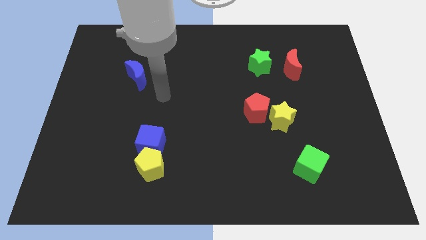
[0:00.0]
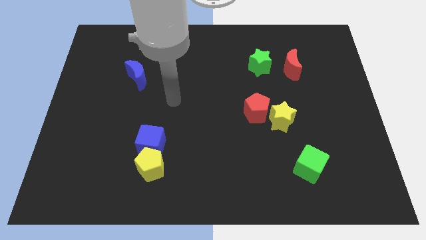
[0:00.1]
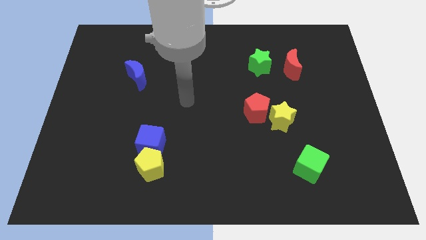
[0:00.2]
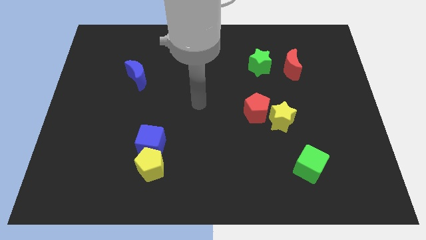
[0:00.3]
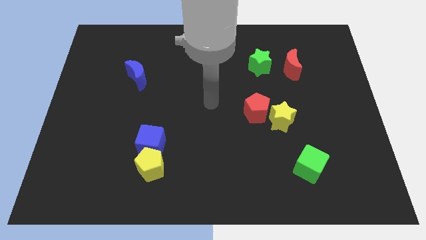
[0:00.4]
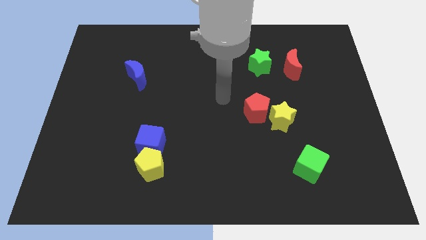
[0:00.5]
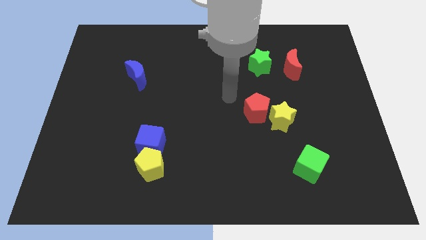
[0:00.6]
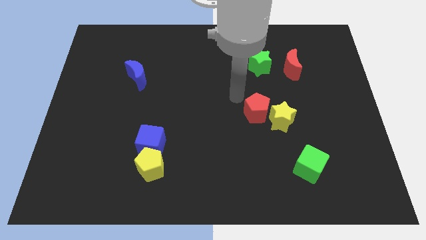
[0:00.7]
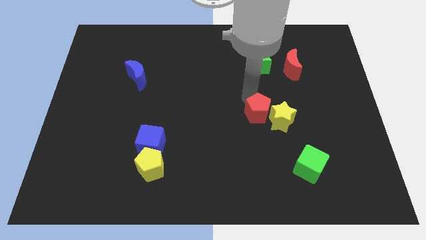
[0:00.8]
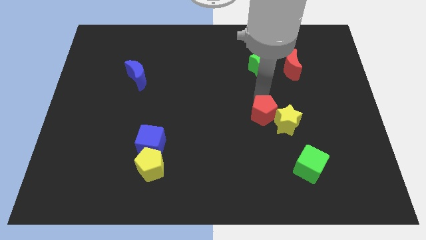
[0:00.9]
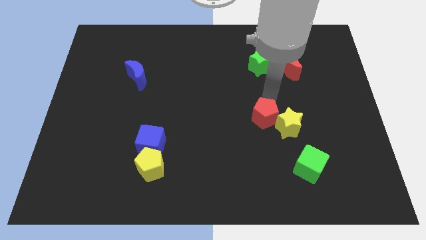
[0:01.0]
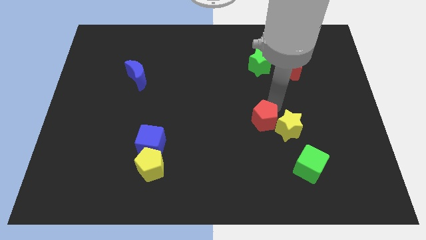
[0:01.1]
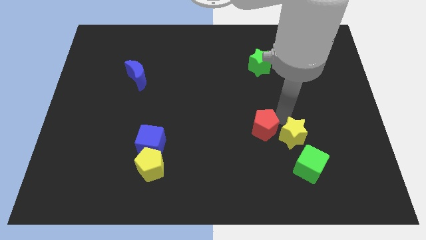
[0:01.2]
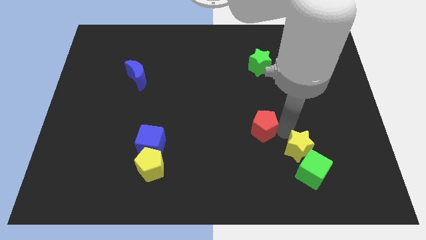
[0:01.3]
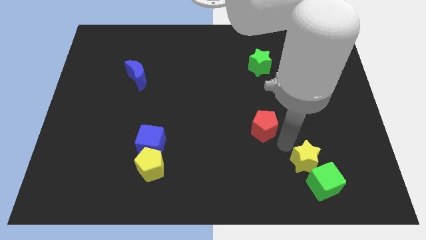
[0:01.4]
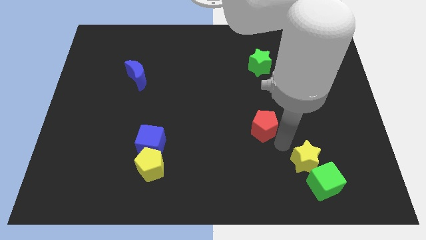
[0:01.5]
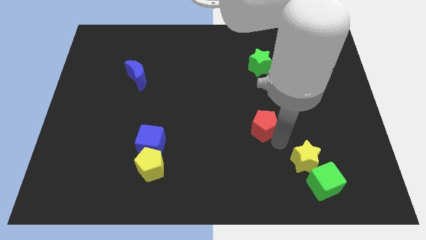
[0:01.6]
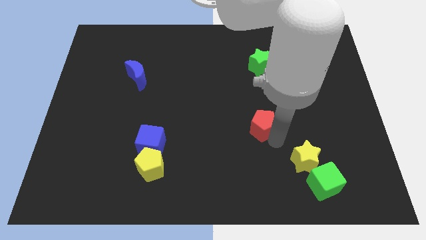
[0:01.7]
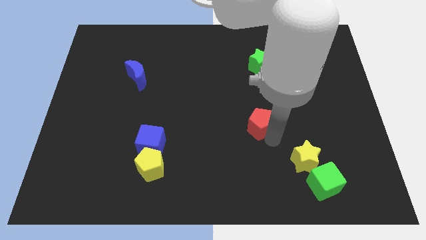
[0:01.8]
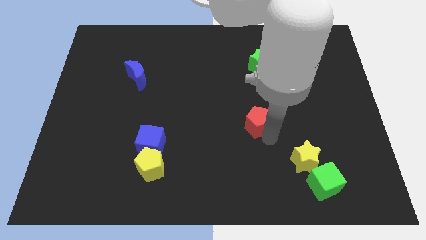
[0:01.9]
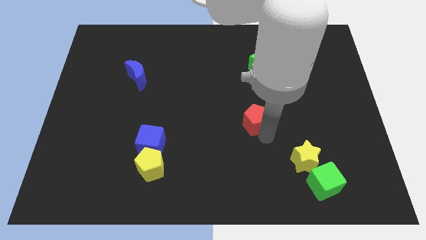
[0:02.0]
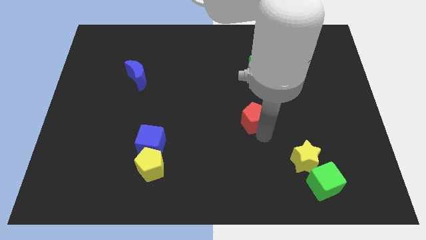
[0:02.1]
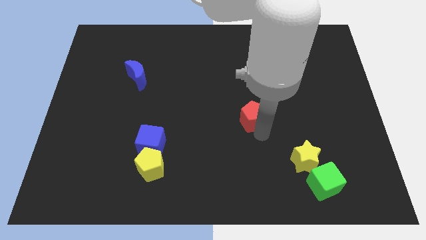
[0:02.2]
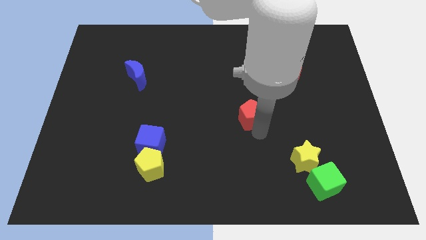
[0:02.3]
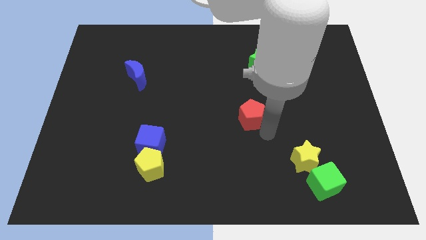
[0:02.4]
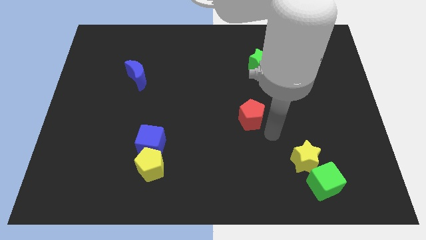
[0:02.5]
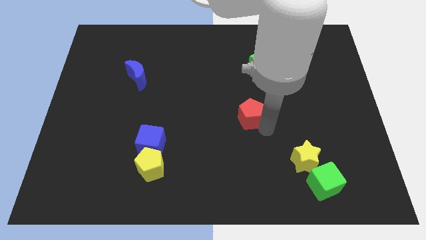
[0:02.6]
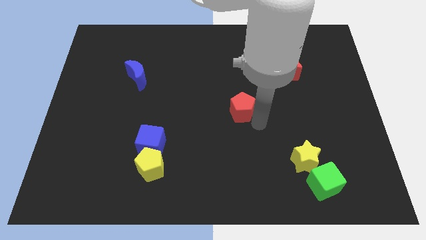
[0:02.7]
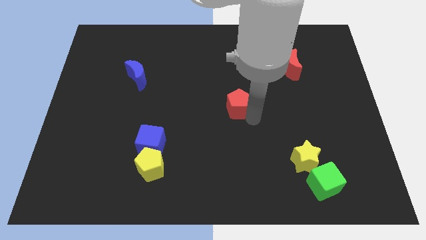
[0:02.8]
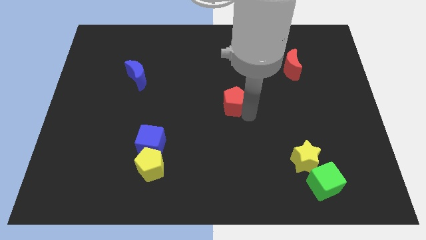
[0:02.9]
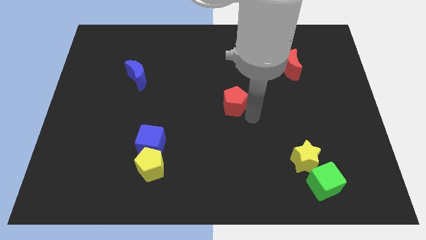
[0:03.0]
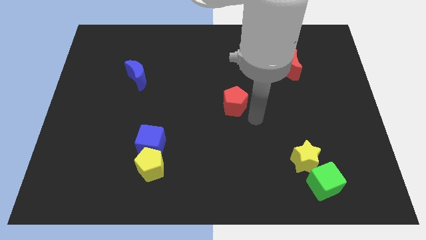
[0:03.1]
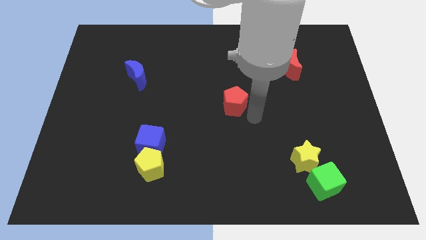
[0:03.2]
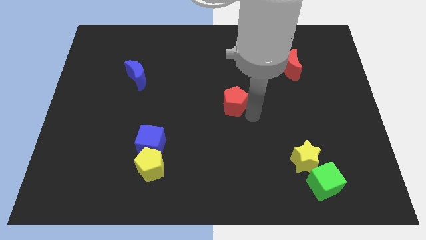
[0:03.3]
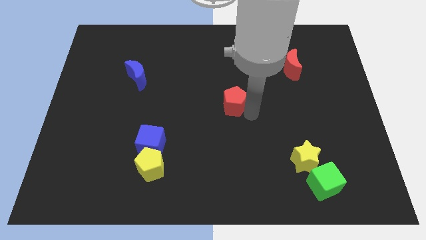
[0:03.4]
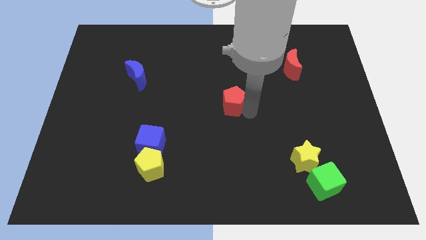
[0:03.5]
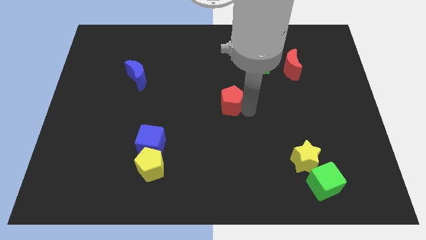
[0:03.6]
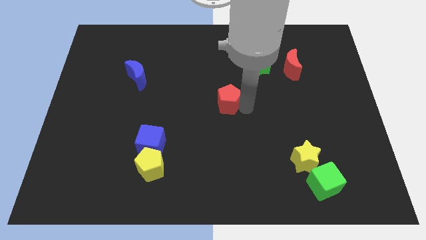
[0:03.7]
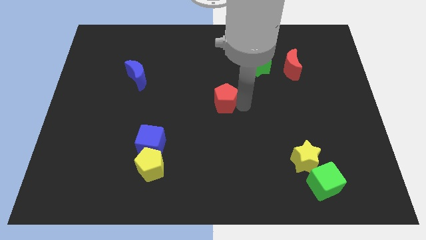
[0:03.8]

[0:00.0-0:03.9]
slide the red pentagon upwards and then to the left a little

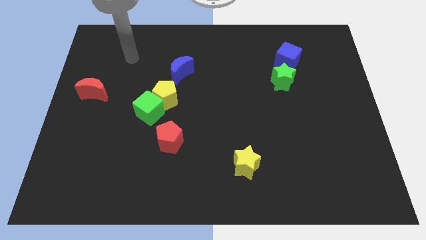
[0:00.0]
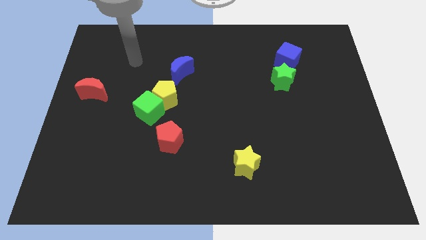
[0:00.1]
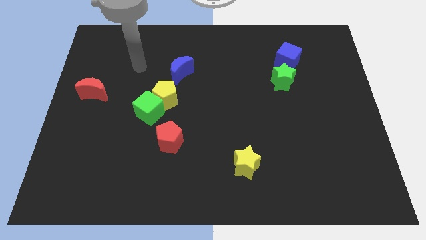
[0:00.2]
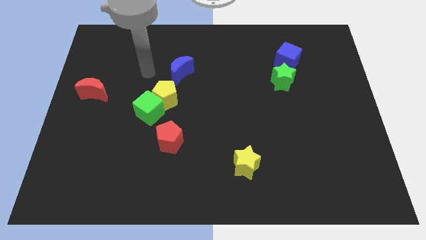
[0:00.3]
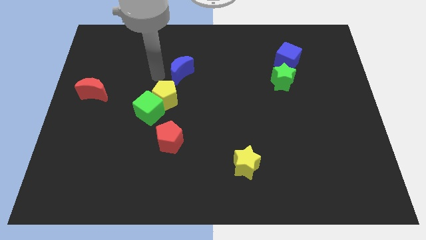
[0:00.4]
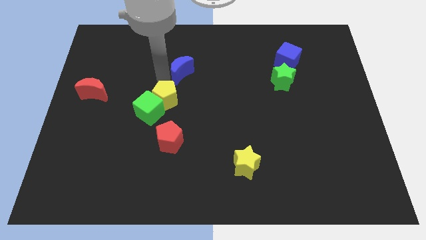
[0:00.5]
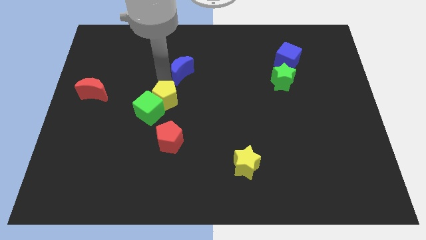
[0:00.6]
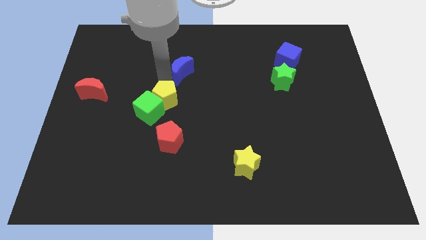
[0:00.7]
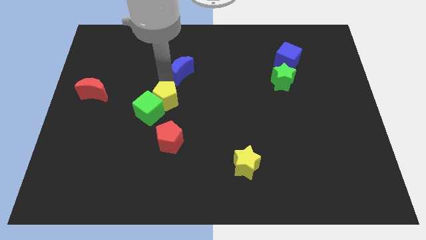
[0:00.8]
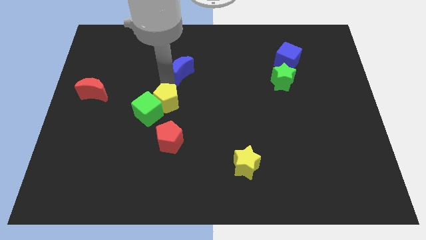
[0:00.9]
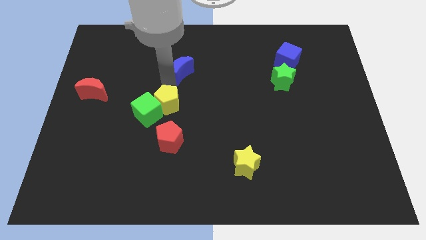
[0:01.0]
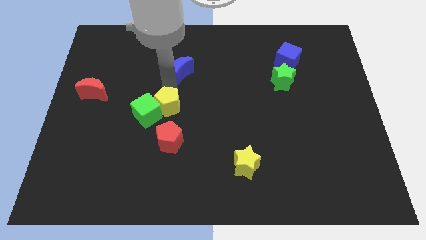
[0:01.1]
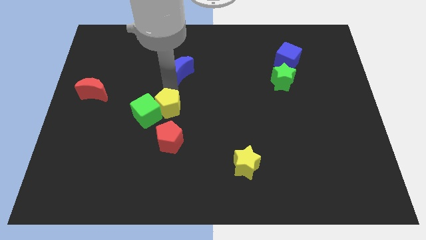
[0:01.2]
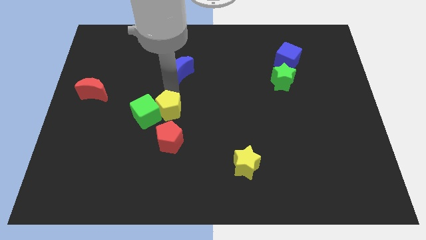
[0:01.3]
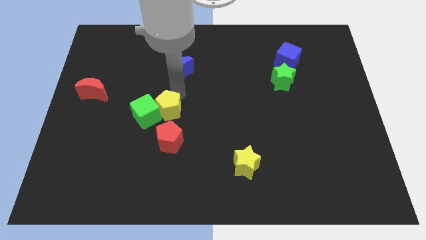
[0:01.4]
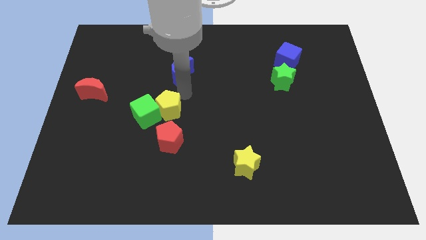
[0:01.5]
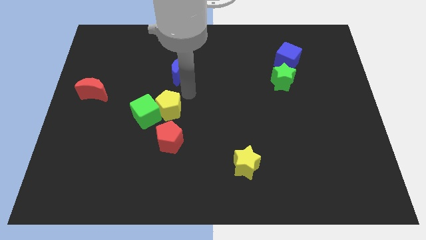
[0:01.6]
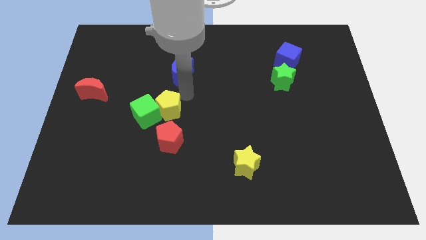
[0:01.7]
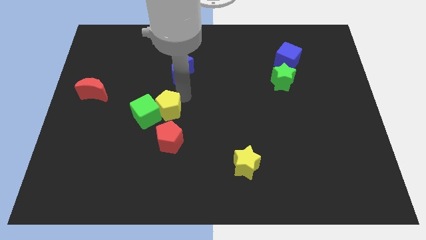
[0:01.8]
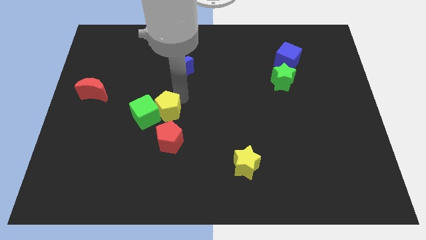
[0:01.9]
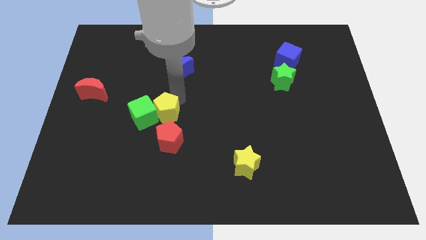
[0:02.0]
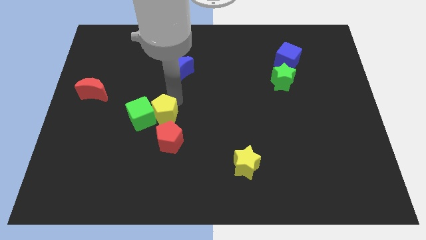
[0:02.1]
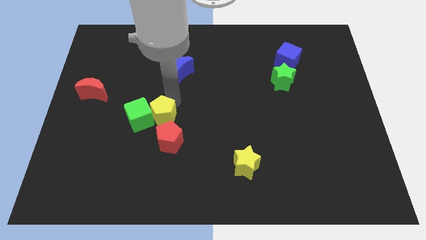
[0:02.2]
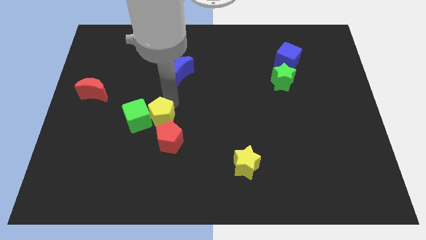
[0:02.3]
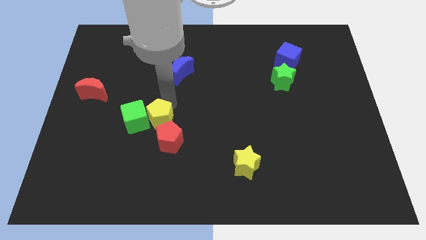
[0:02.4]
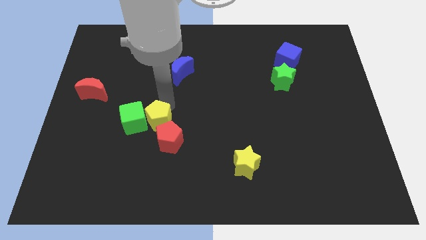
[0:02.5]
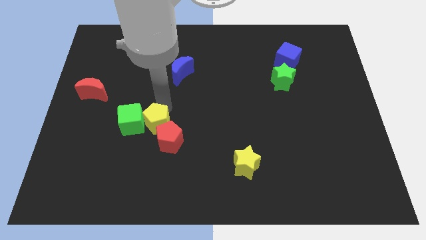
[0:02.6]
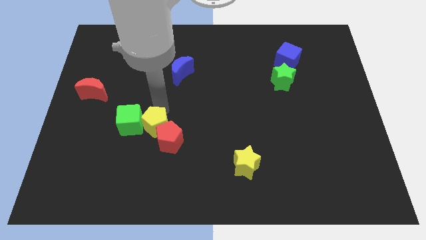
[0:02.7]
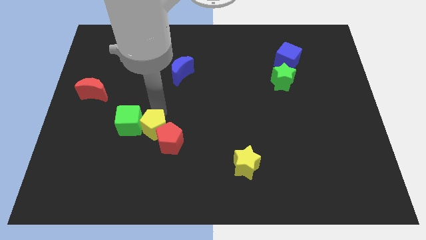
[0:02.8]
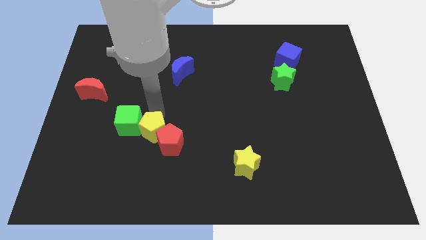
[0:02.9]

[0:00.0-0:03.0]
move the yellow pentagon a little down and to the left

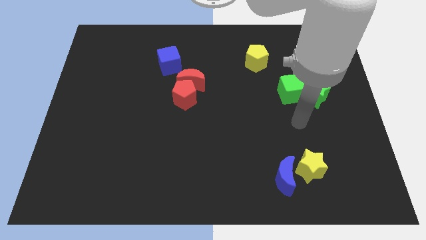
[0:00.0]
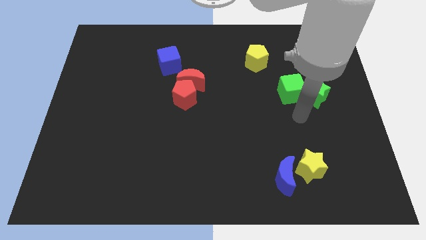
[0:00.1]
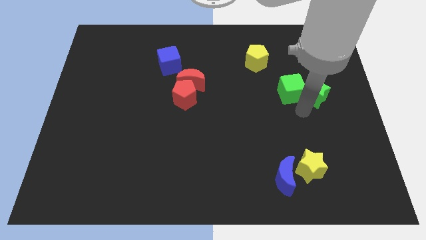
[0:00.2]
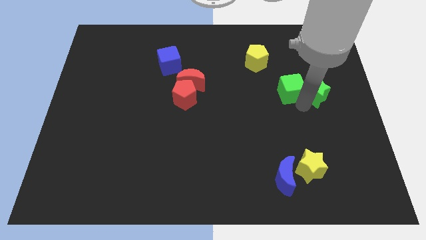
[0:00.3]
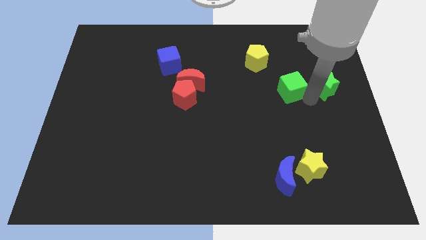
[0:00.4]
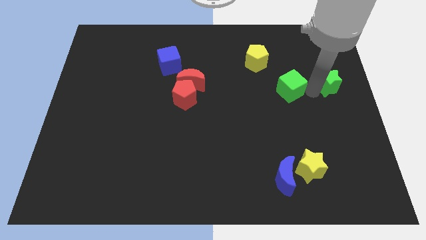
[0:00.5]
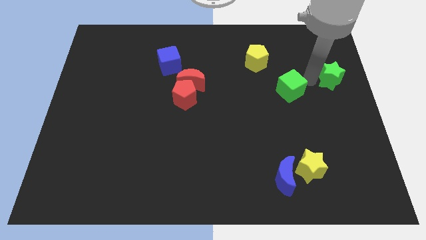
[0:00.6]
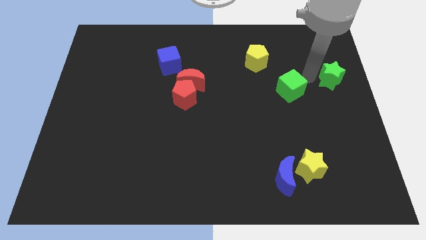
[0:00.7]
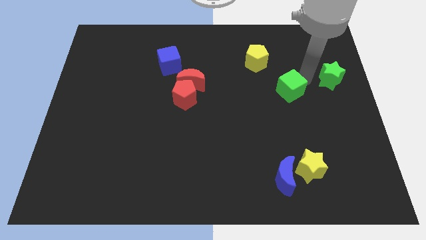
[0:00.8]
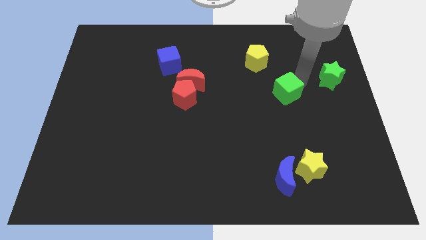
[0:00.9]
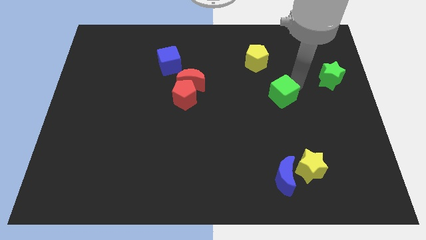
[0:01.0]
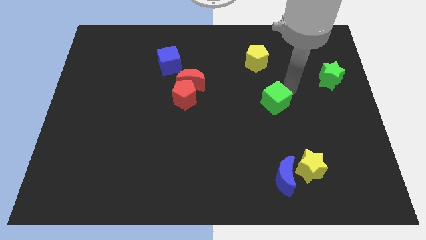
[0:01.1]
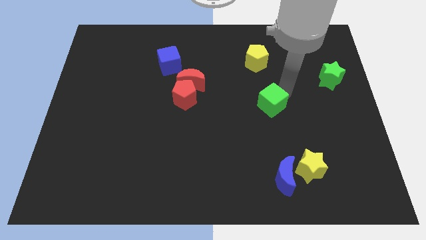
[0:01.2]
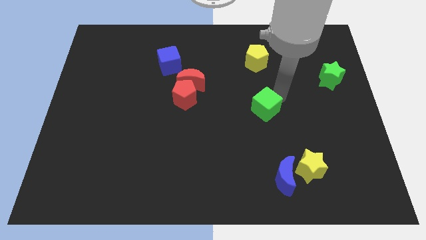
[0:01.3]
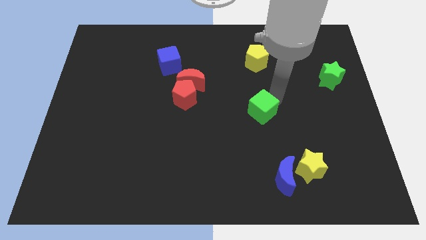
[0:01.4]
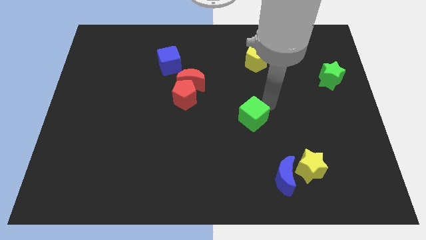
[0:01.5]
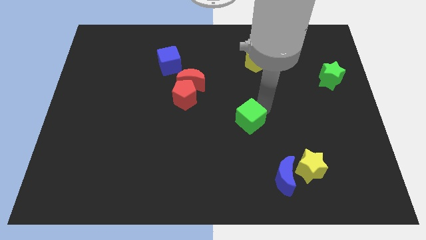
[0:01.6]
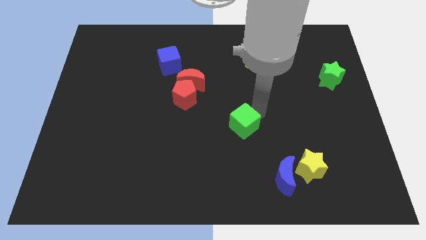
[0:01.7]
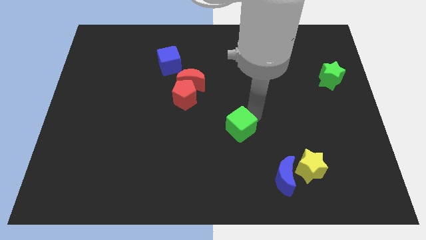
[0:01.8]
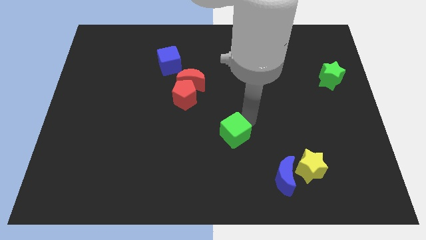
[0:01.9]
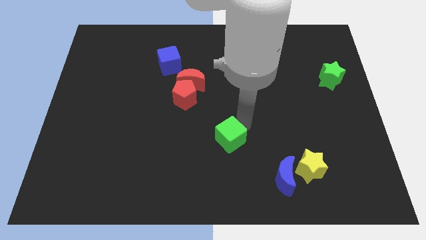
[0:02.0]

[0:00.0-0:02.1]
move the green cube down and left
